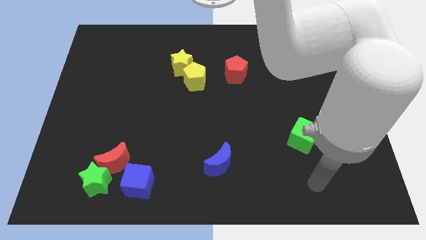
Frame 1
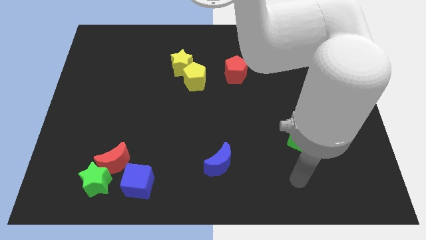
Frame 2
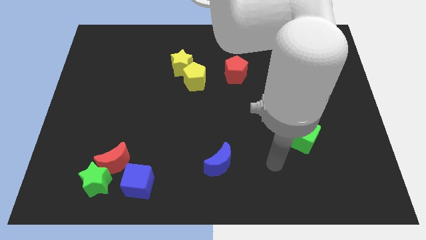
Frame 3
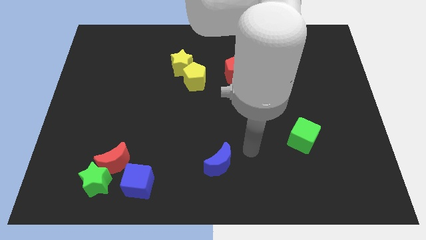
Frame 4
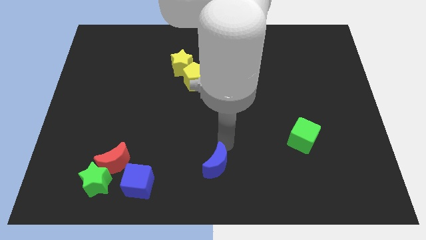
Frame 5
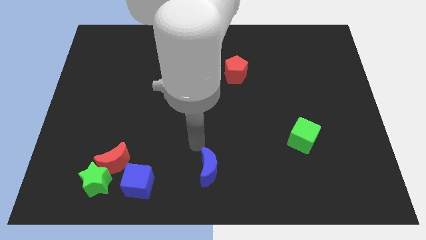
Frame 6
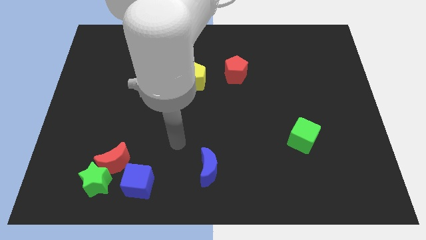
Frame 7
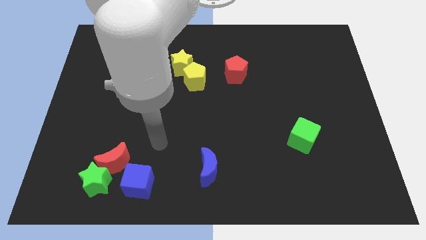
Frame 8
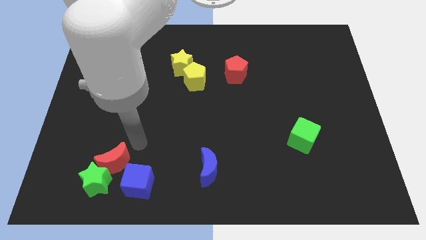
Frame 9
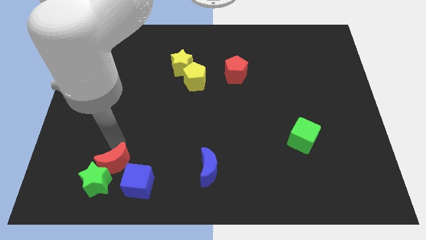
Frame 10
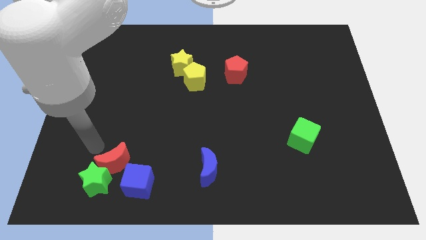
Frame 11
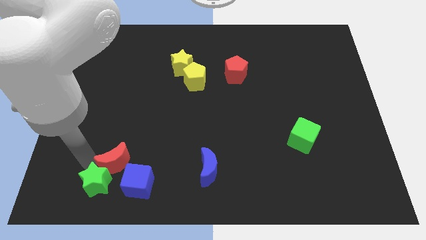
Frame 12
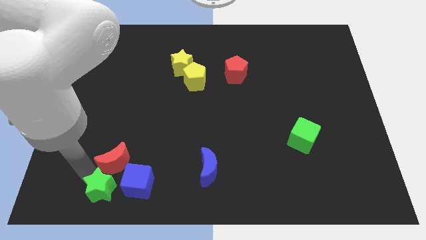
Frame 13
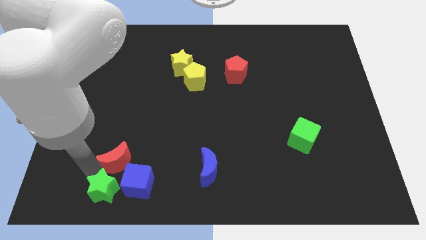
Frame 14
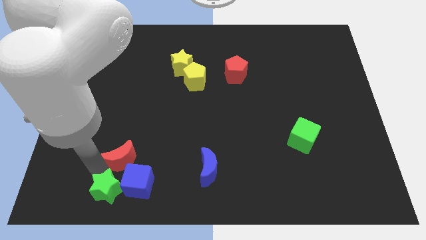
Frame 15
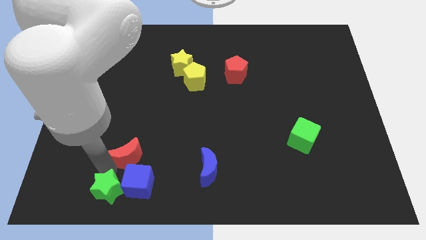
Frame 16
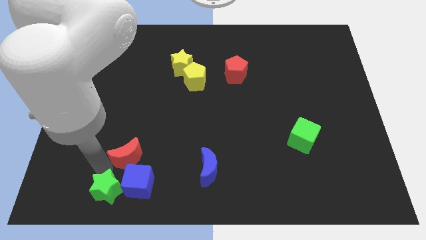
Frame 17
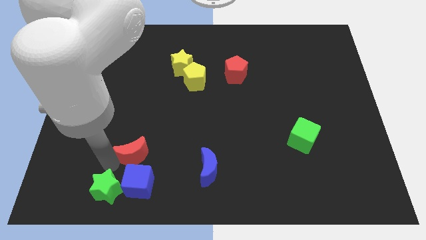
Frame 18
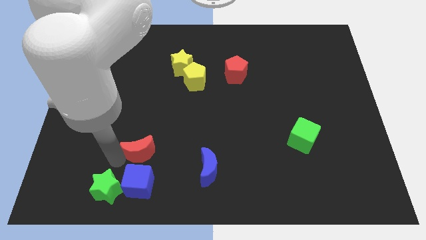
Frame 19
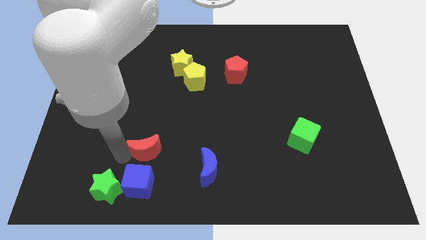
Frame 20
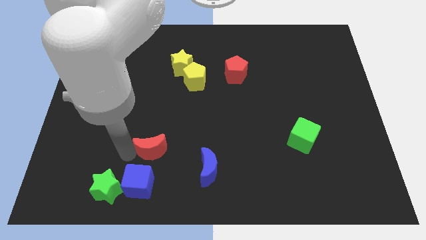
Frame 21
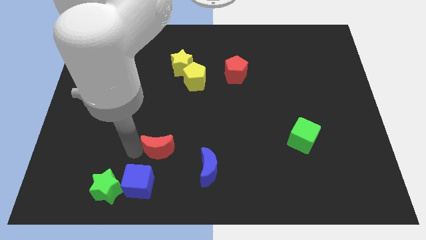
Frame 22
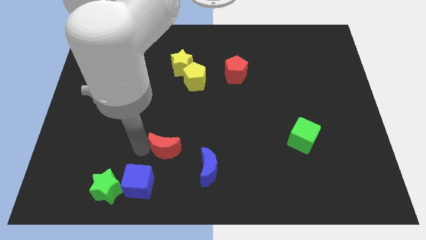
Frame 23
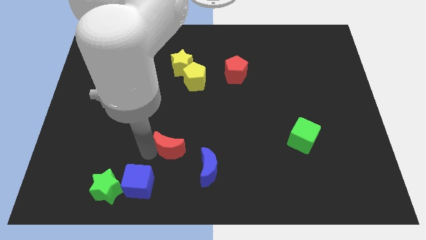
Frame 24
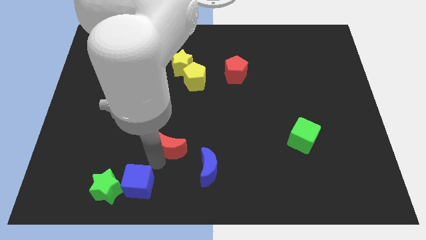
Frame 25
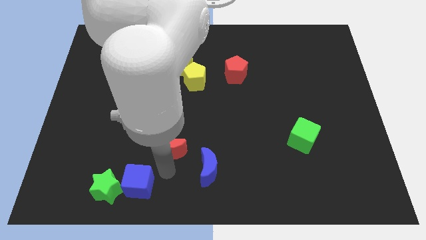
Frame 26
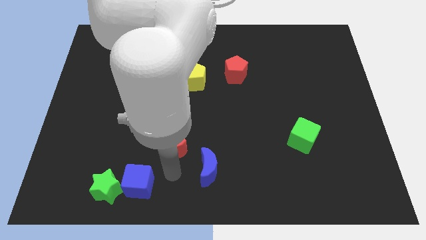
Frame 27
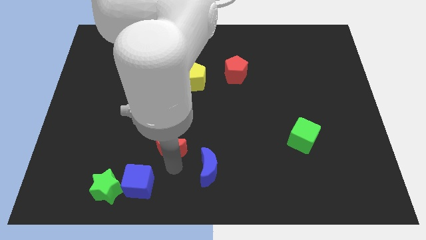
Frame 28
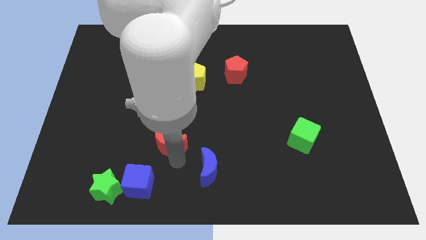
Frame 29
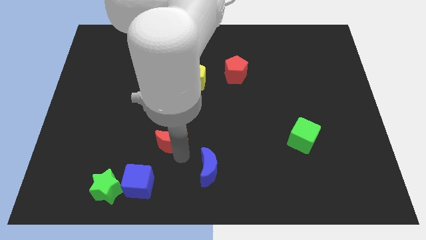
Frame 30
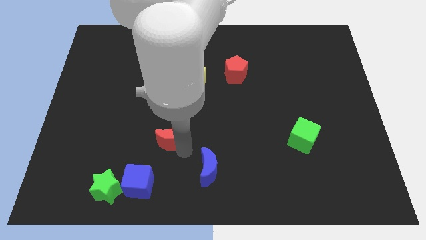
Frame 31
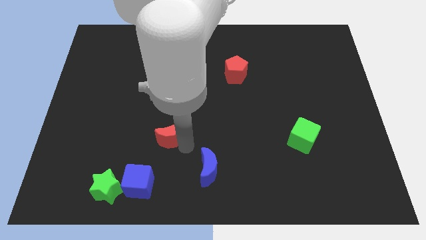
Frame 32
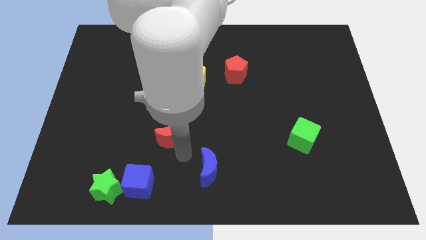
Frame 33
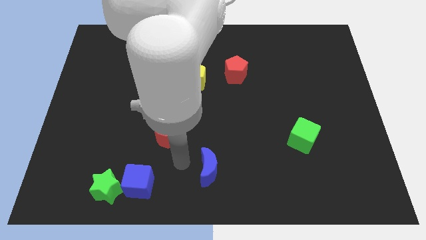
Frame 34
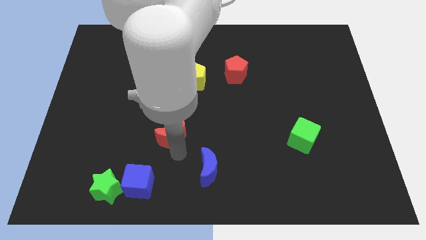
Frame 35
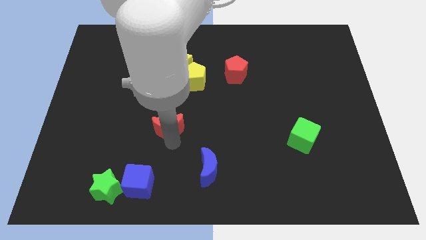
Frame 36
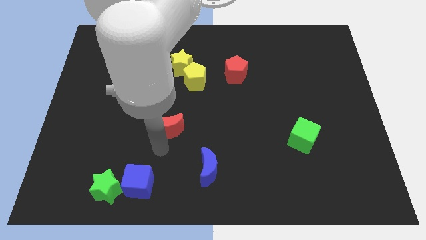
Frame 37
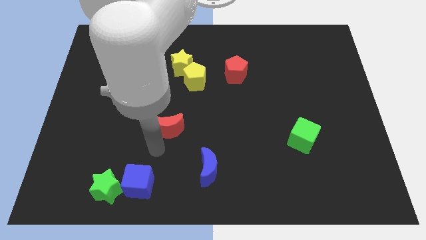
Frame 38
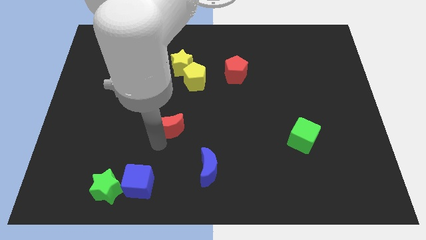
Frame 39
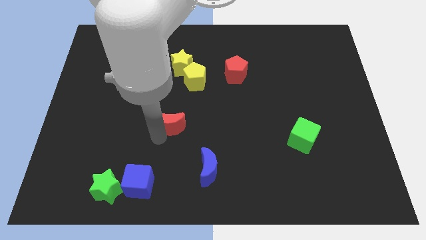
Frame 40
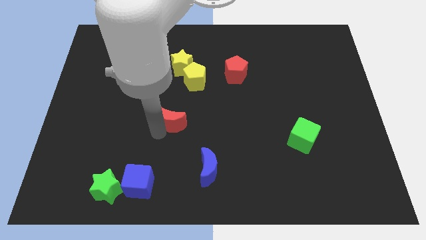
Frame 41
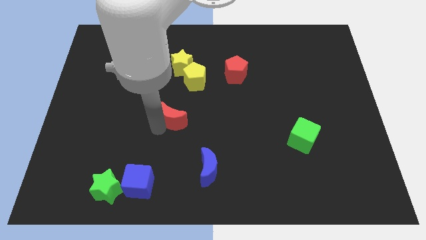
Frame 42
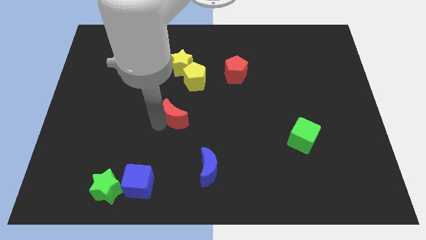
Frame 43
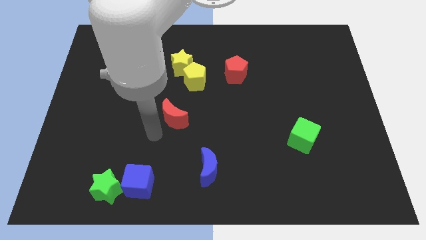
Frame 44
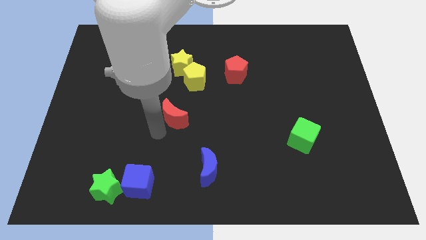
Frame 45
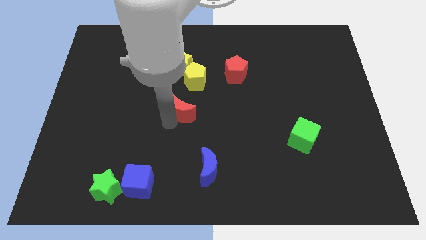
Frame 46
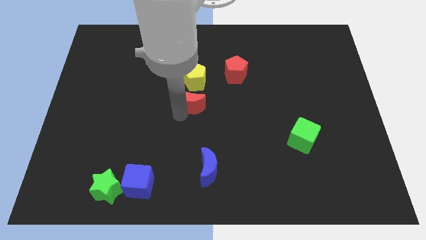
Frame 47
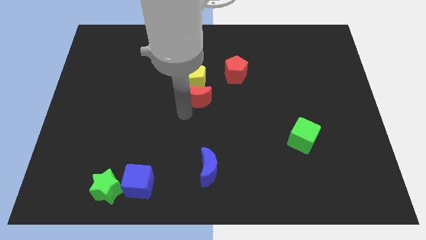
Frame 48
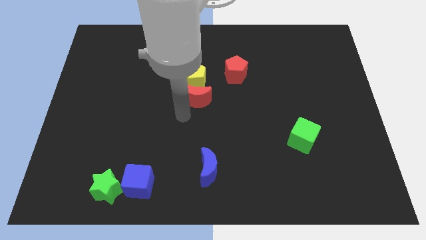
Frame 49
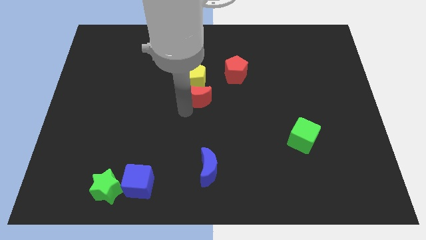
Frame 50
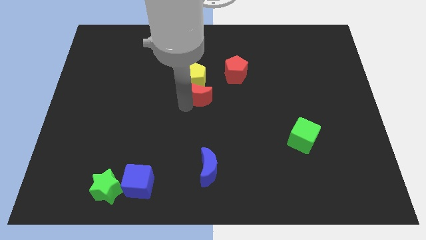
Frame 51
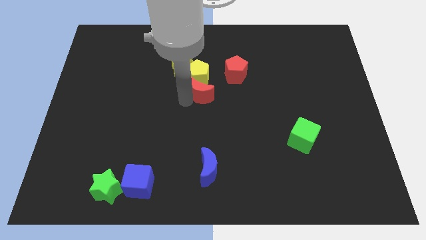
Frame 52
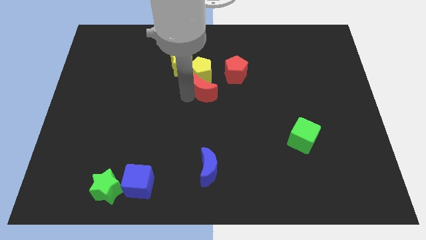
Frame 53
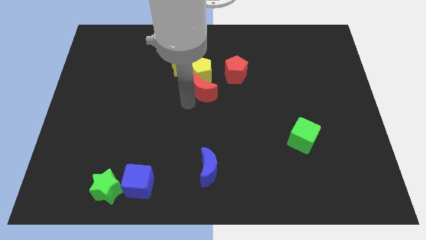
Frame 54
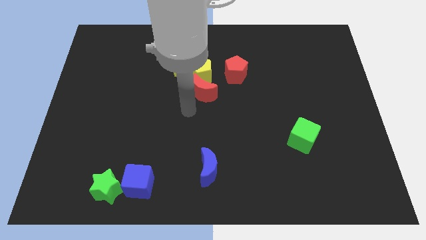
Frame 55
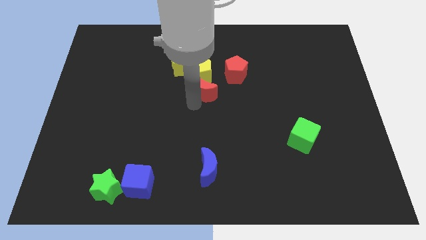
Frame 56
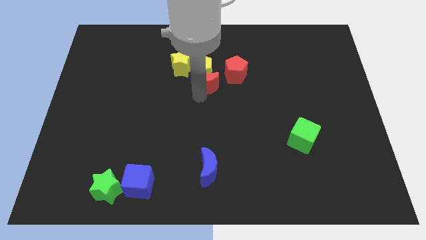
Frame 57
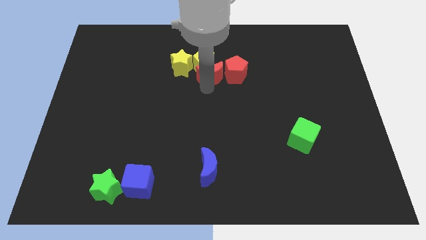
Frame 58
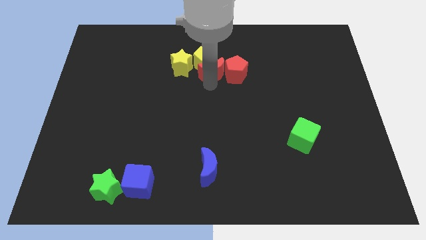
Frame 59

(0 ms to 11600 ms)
put the red moon to the top left of the red pentagon

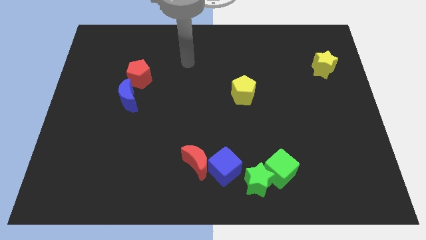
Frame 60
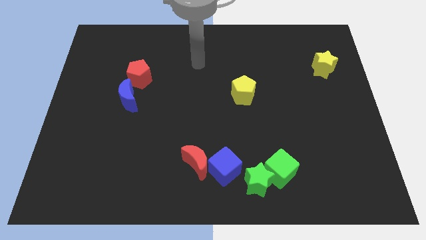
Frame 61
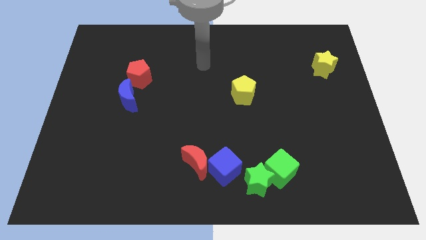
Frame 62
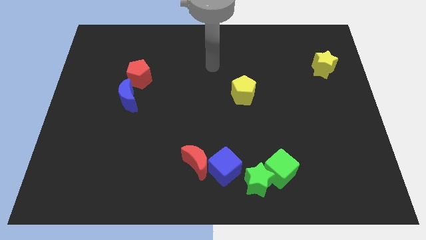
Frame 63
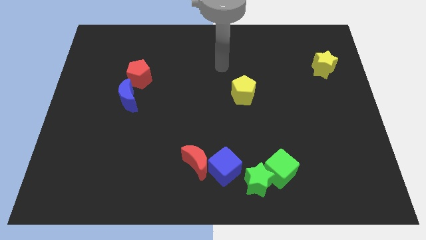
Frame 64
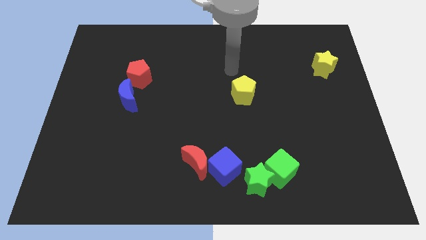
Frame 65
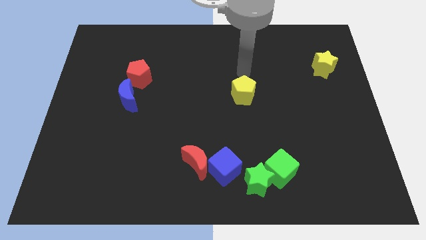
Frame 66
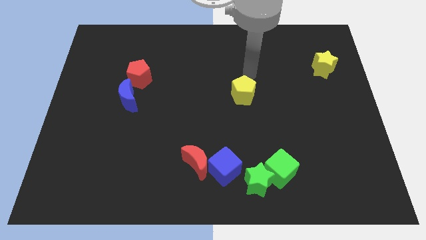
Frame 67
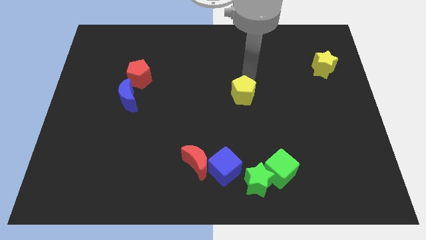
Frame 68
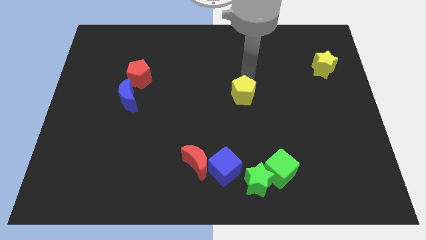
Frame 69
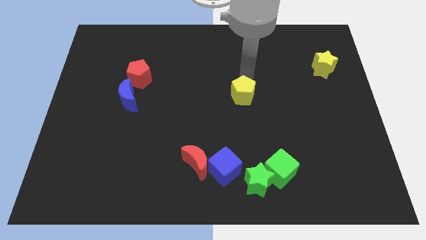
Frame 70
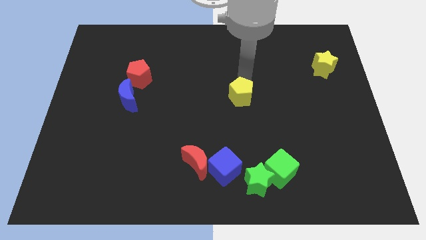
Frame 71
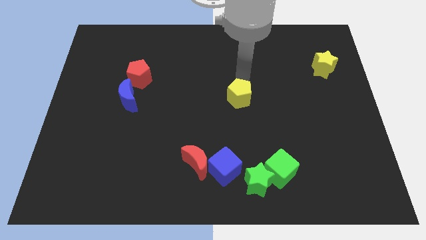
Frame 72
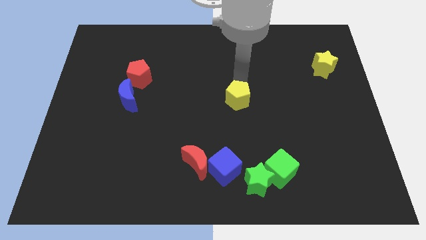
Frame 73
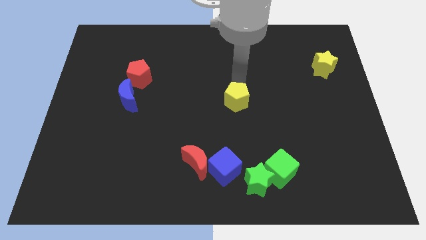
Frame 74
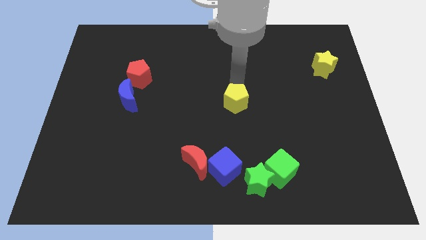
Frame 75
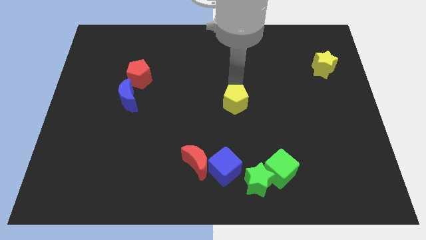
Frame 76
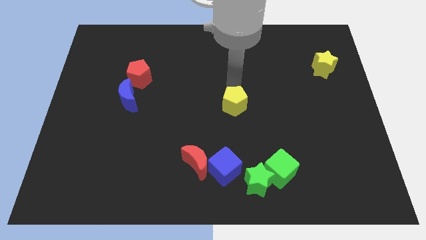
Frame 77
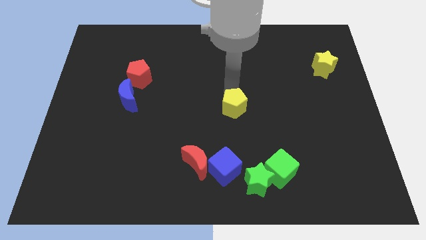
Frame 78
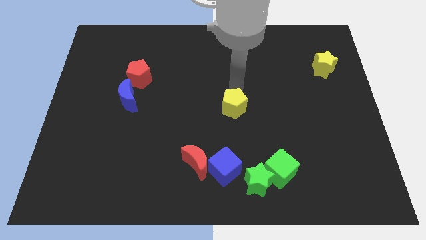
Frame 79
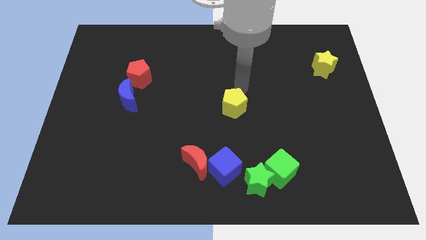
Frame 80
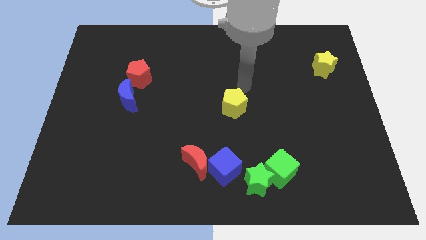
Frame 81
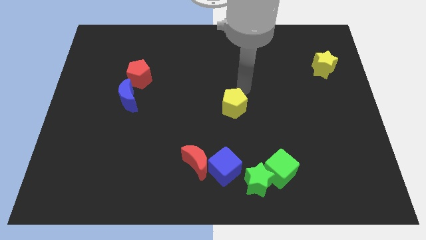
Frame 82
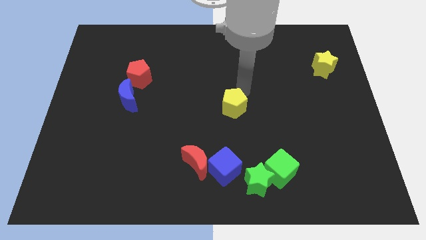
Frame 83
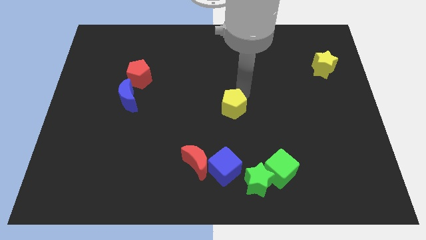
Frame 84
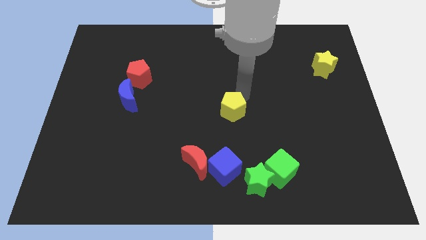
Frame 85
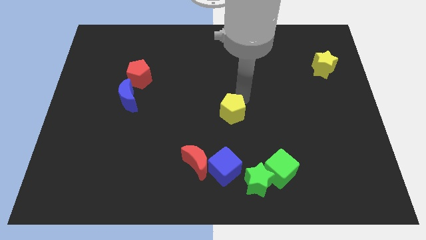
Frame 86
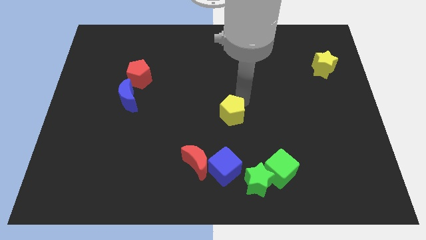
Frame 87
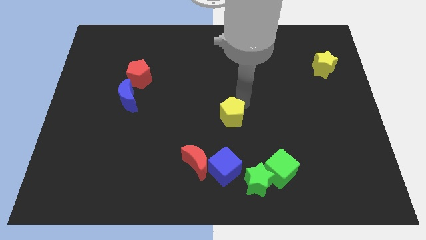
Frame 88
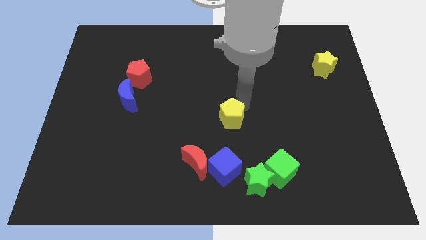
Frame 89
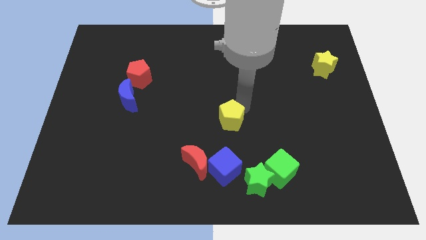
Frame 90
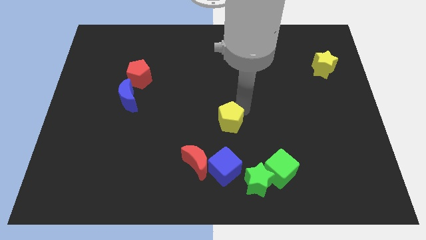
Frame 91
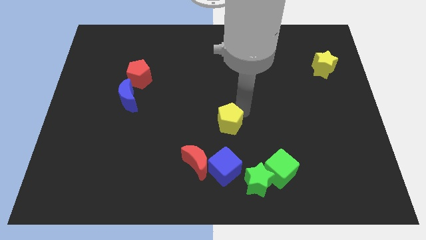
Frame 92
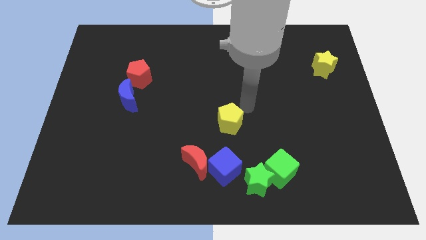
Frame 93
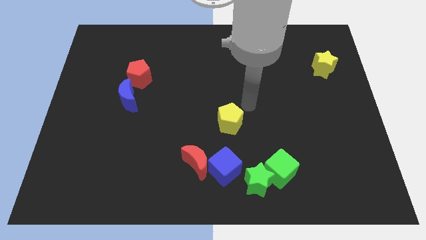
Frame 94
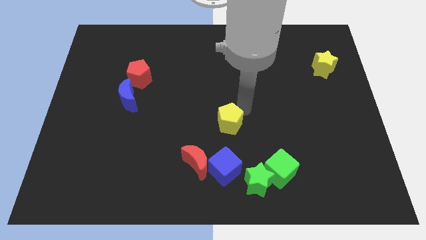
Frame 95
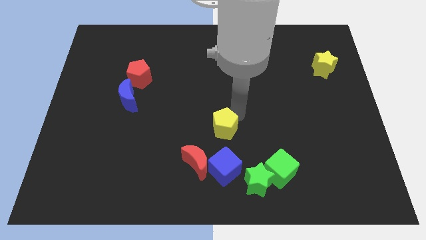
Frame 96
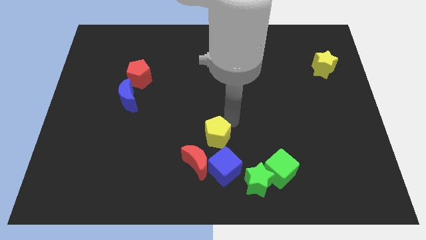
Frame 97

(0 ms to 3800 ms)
put the yellow pentagon to the top left side of the blue cube
